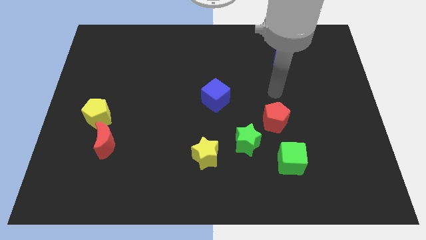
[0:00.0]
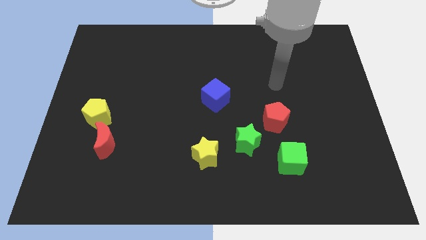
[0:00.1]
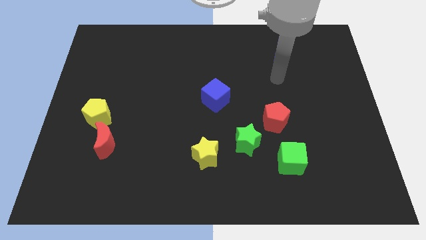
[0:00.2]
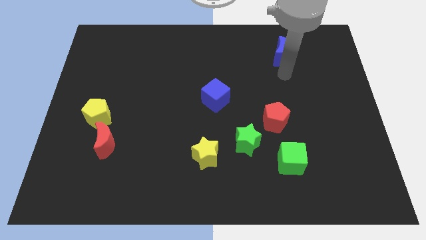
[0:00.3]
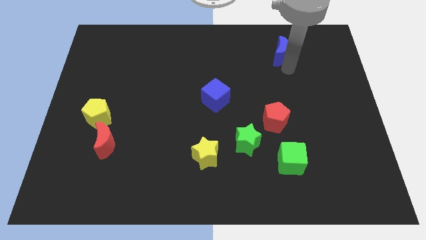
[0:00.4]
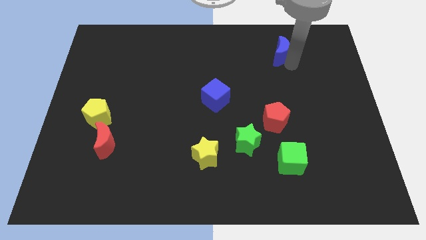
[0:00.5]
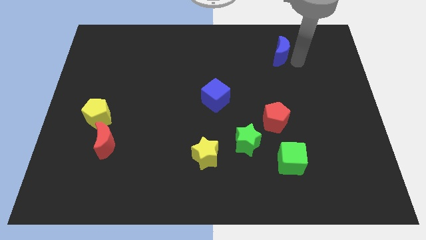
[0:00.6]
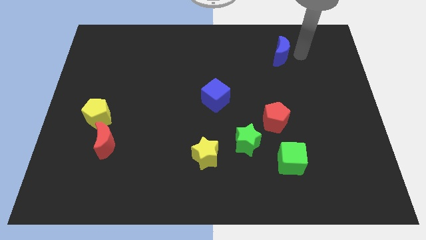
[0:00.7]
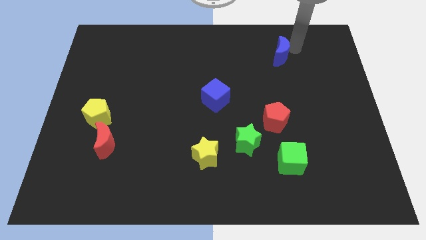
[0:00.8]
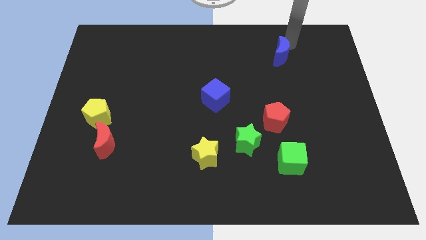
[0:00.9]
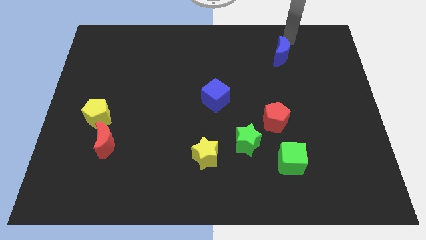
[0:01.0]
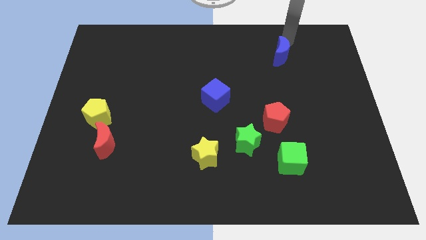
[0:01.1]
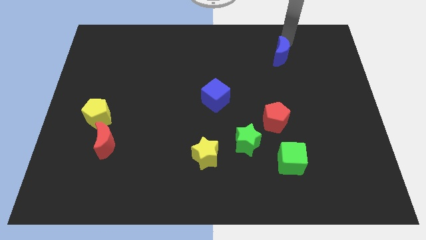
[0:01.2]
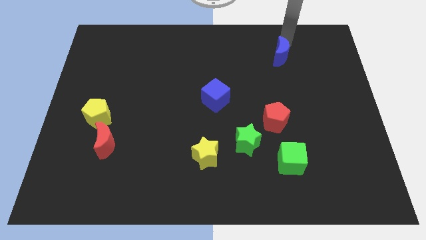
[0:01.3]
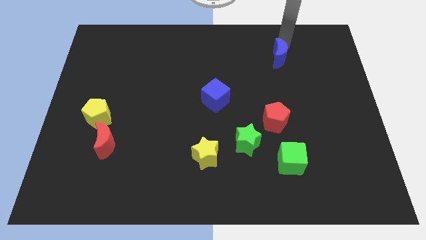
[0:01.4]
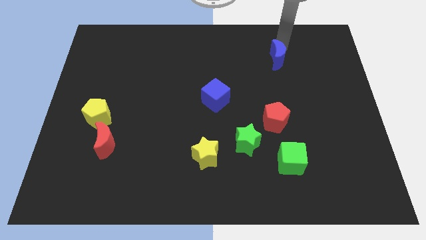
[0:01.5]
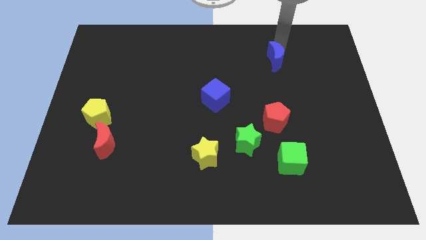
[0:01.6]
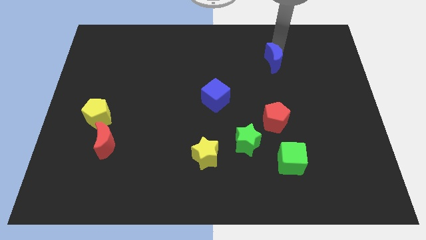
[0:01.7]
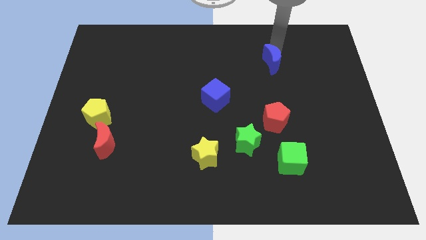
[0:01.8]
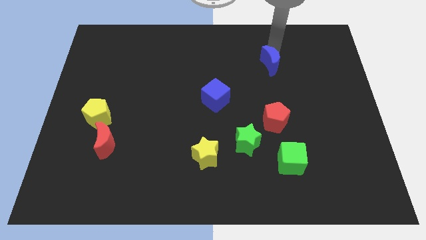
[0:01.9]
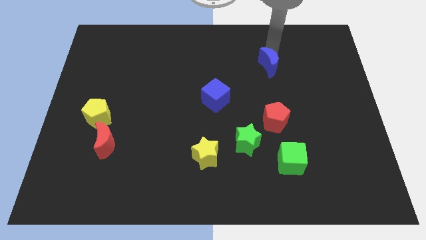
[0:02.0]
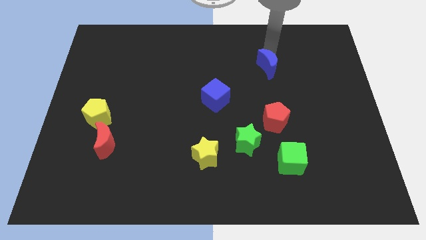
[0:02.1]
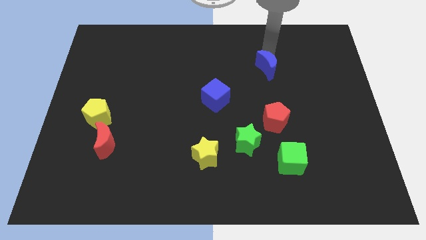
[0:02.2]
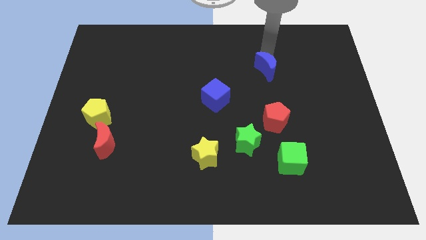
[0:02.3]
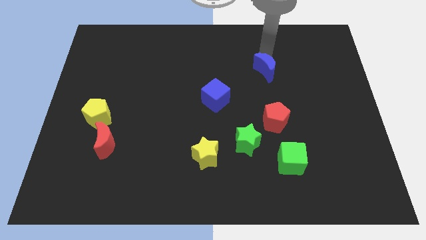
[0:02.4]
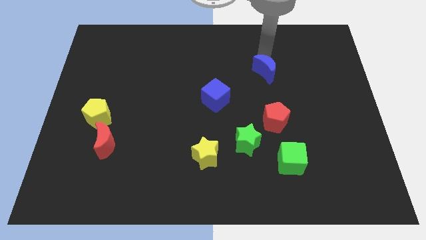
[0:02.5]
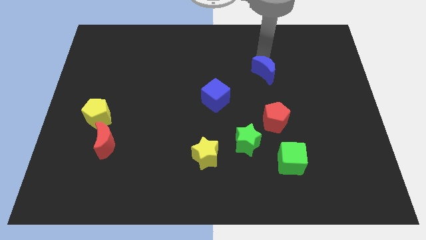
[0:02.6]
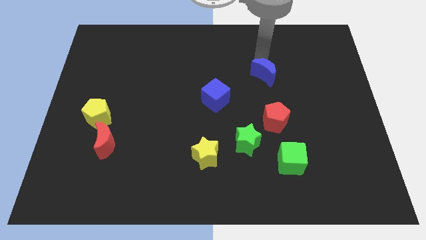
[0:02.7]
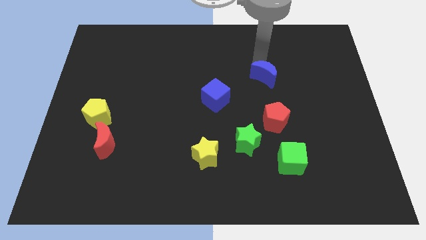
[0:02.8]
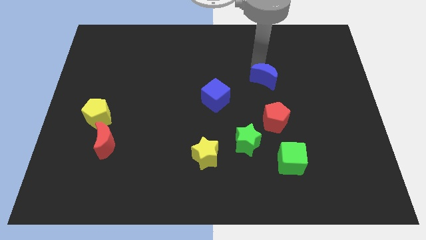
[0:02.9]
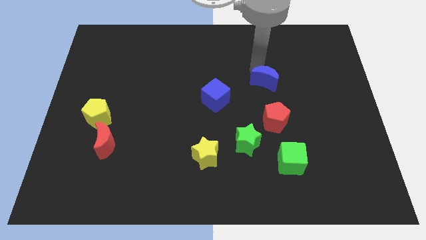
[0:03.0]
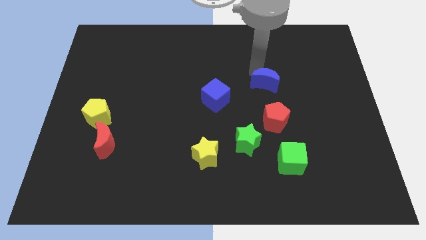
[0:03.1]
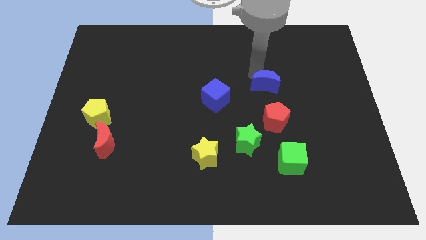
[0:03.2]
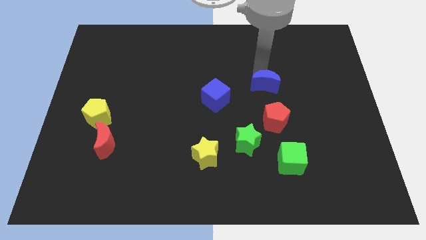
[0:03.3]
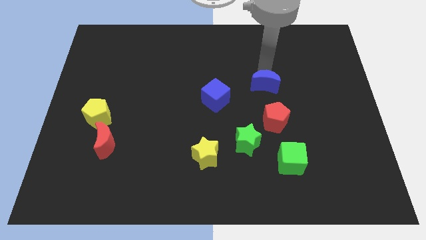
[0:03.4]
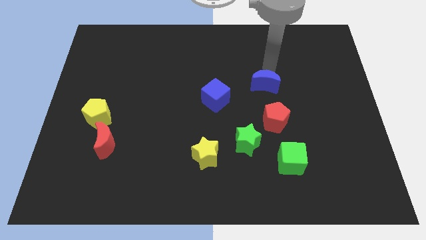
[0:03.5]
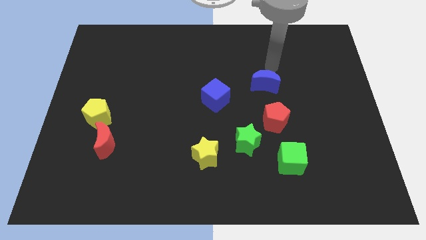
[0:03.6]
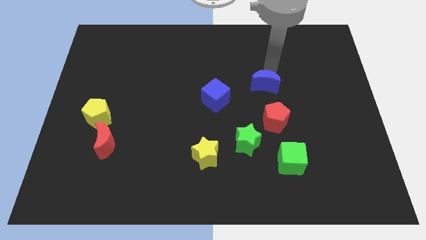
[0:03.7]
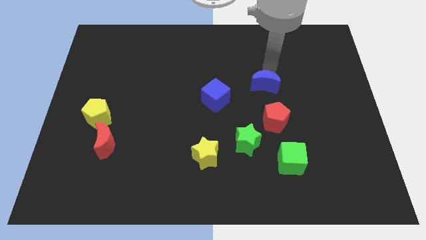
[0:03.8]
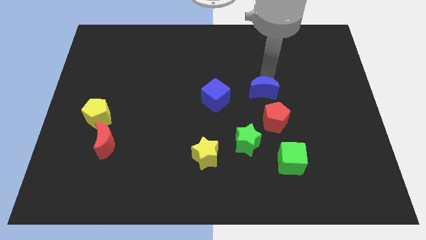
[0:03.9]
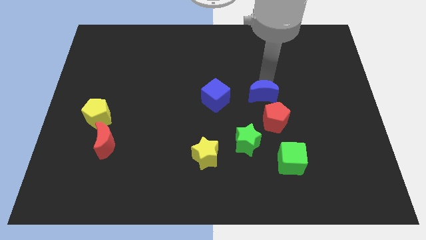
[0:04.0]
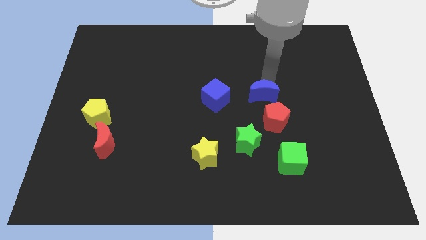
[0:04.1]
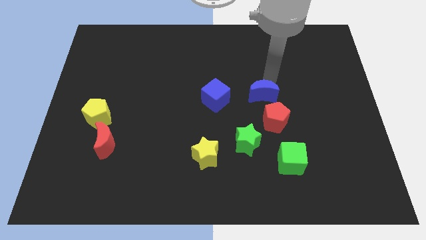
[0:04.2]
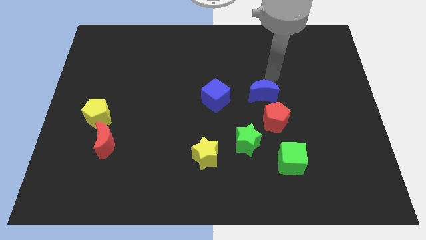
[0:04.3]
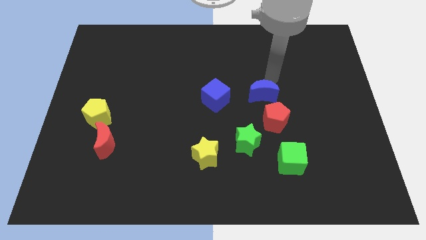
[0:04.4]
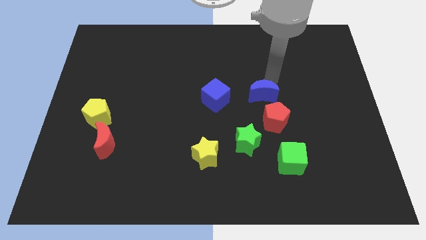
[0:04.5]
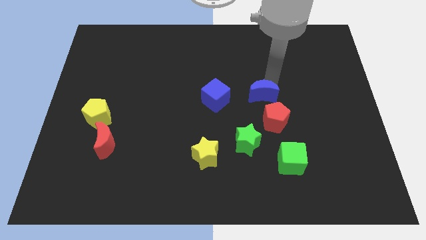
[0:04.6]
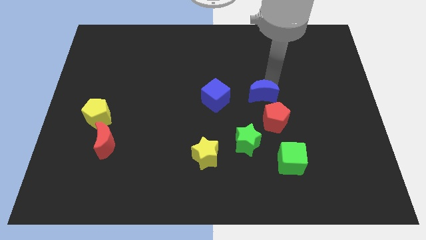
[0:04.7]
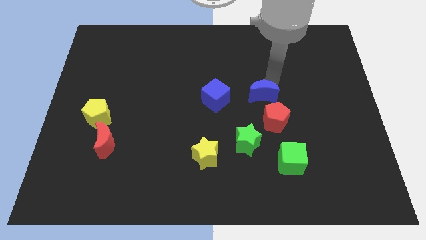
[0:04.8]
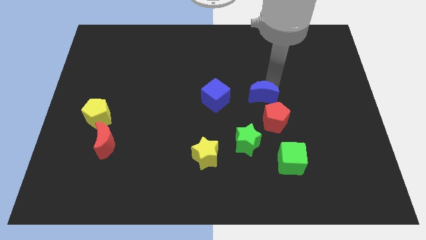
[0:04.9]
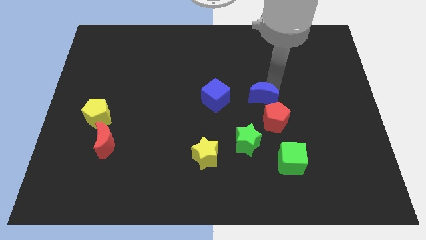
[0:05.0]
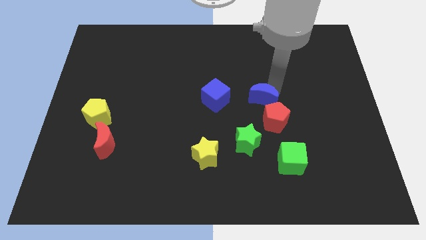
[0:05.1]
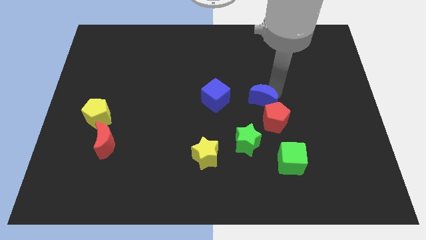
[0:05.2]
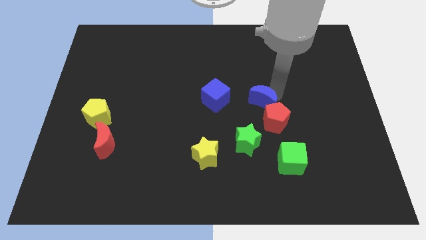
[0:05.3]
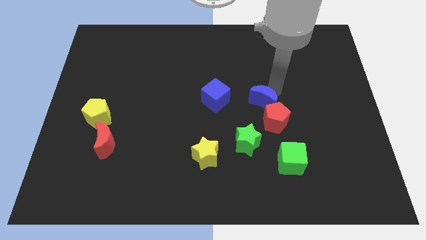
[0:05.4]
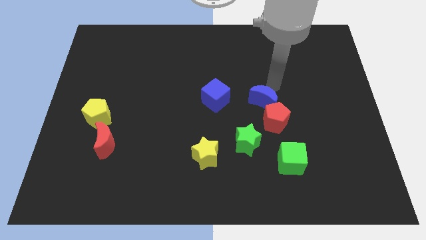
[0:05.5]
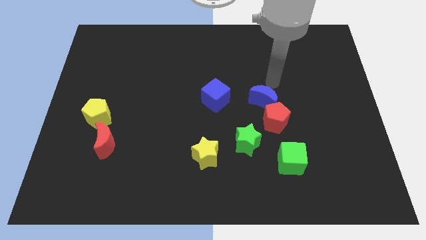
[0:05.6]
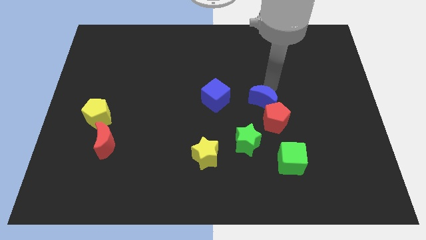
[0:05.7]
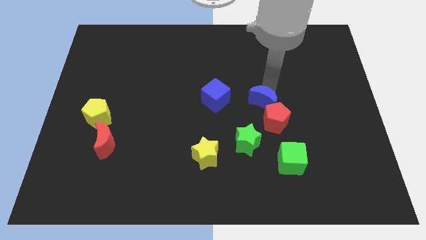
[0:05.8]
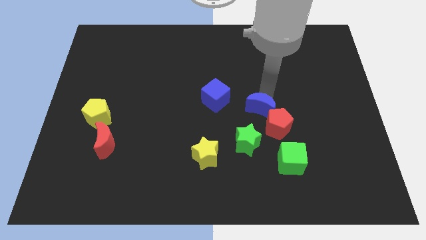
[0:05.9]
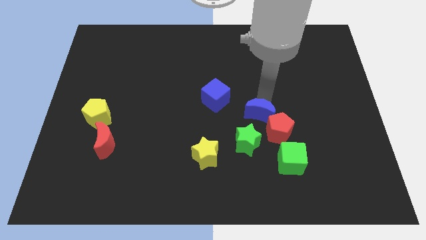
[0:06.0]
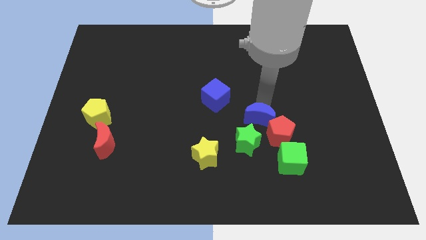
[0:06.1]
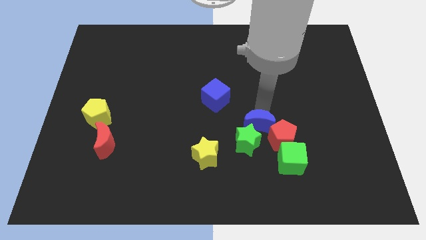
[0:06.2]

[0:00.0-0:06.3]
put the blue moon to the green star

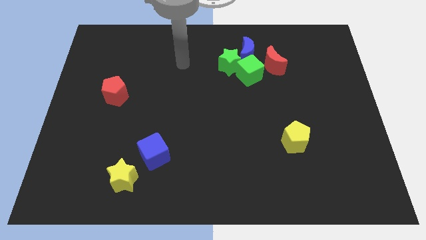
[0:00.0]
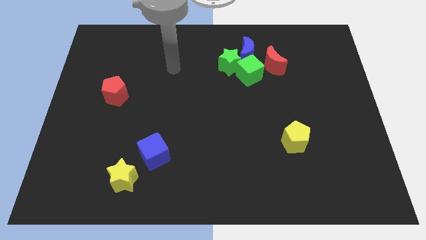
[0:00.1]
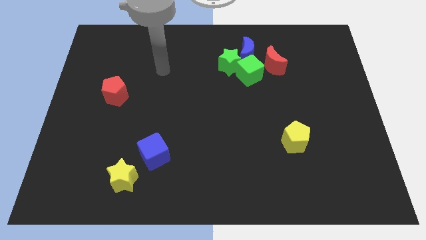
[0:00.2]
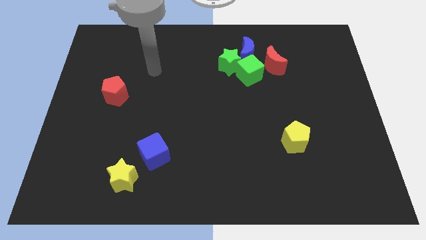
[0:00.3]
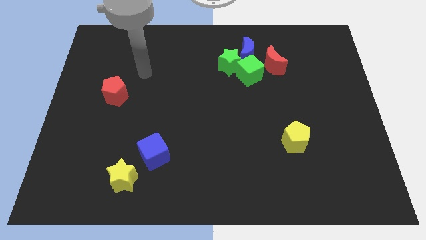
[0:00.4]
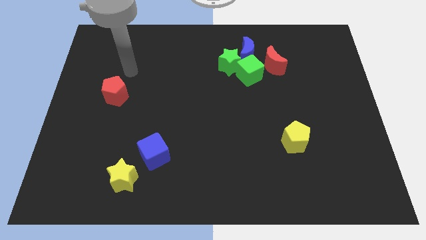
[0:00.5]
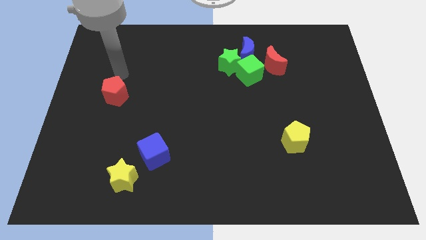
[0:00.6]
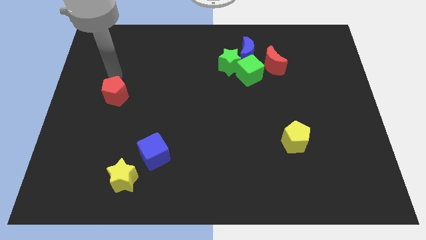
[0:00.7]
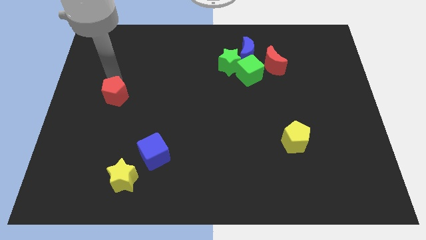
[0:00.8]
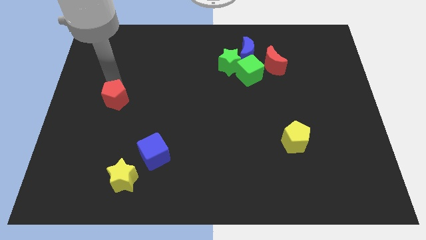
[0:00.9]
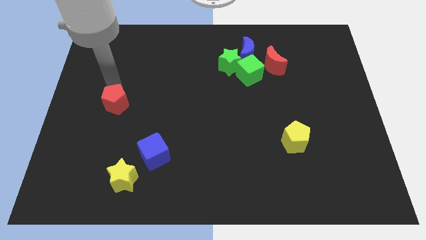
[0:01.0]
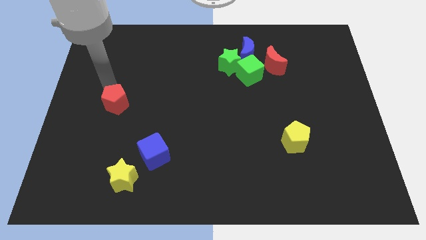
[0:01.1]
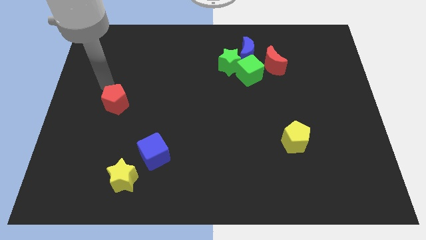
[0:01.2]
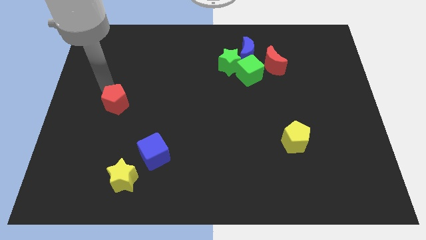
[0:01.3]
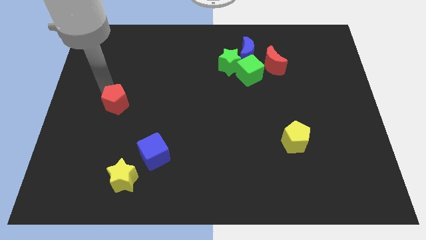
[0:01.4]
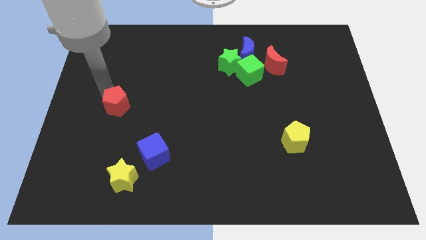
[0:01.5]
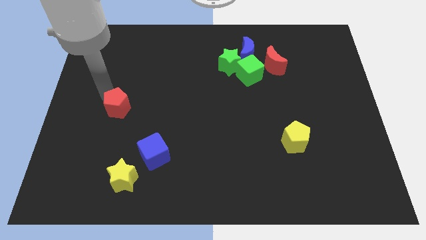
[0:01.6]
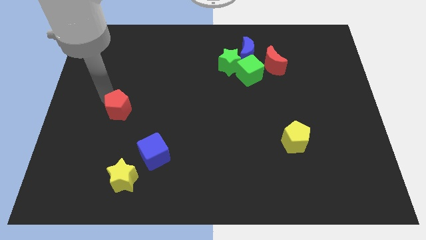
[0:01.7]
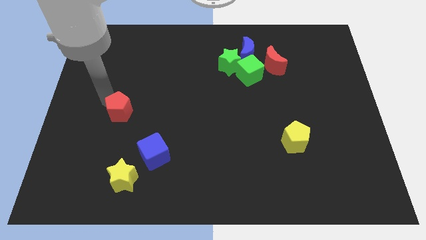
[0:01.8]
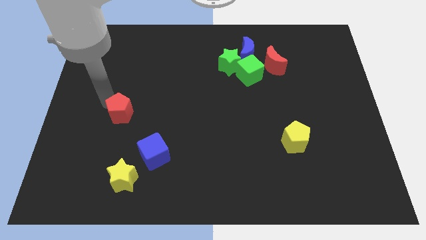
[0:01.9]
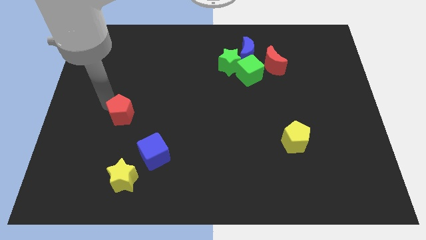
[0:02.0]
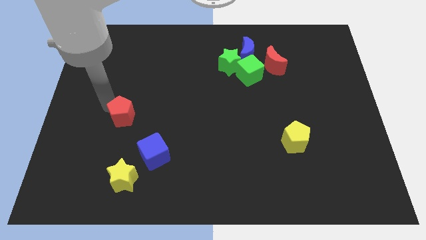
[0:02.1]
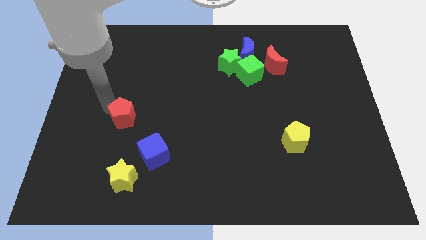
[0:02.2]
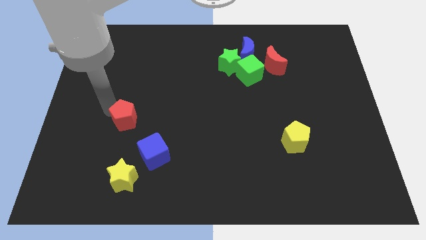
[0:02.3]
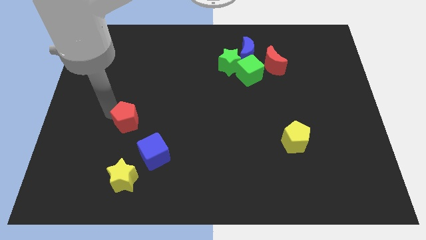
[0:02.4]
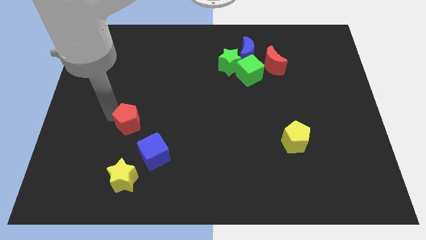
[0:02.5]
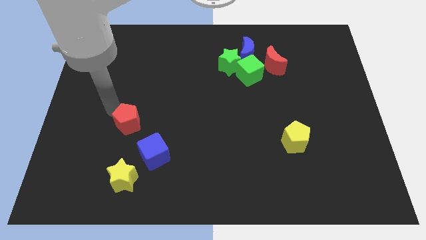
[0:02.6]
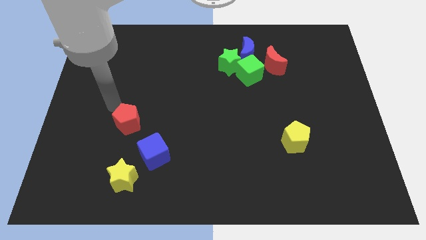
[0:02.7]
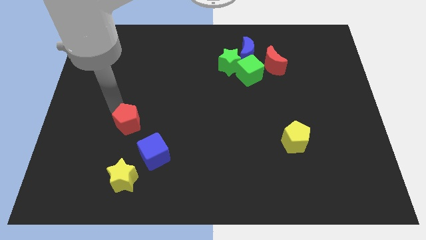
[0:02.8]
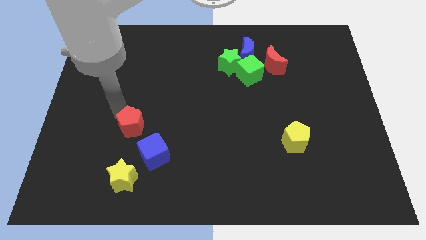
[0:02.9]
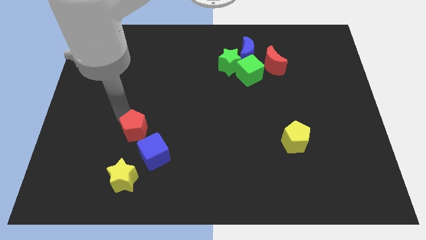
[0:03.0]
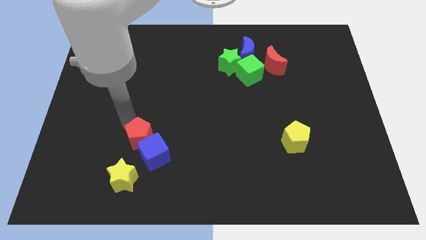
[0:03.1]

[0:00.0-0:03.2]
move the red pentagon to the blue cube
